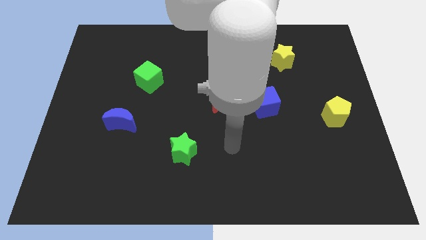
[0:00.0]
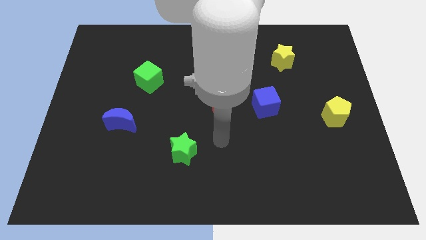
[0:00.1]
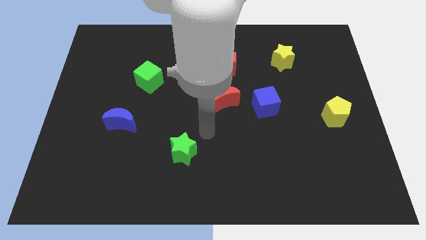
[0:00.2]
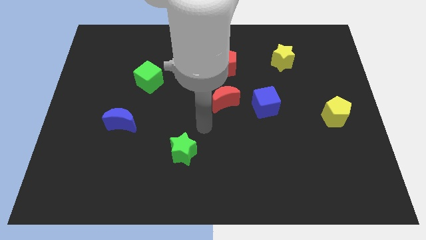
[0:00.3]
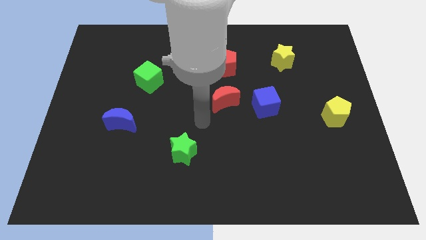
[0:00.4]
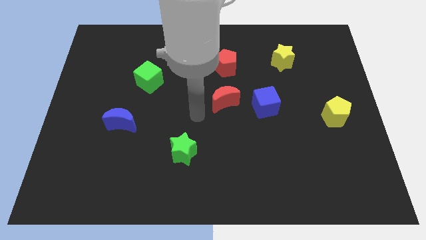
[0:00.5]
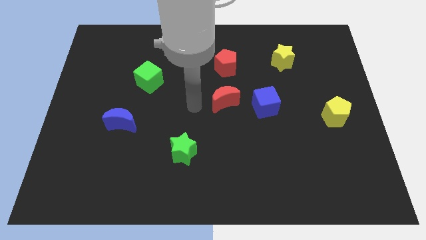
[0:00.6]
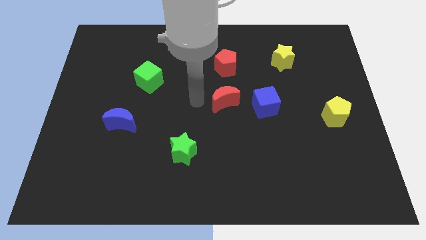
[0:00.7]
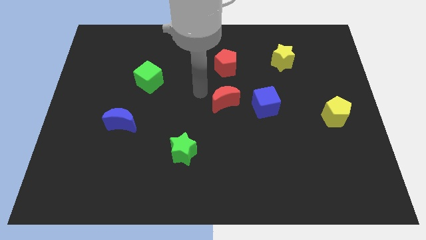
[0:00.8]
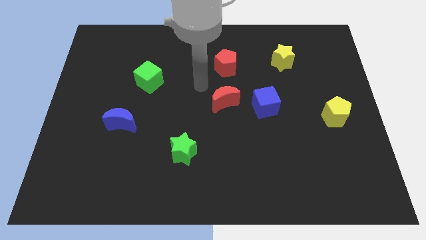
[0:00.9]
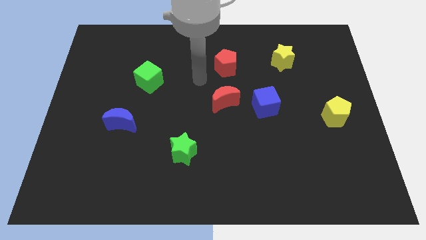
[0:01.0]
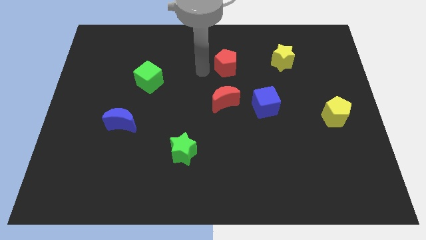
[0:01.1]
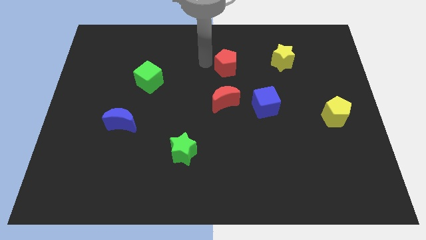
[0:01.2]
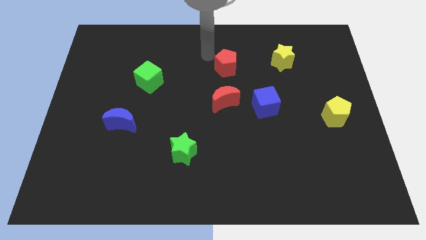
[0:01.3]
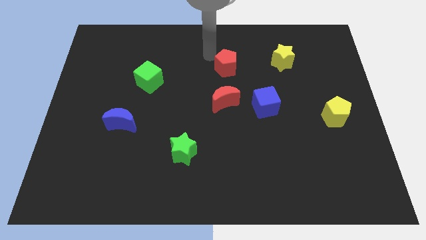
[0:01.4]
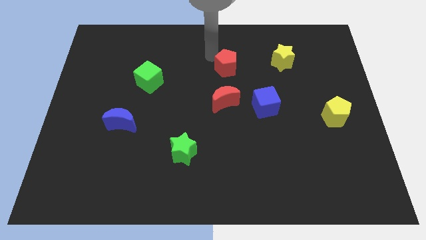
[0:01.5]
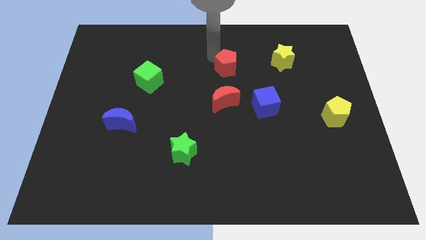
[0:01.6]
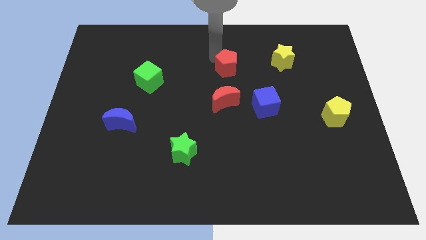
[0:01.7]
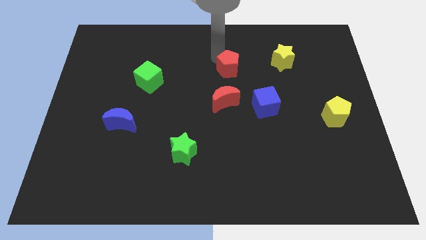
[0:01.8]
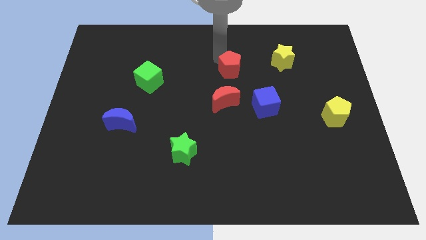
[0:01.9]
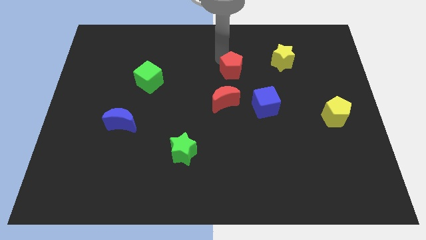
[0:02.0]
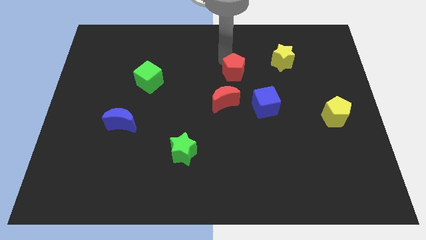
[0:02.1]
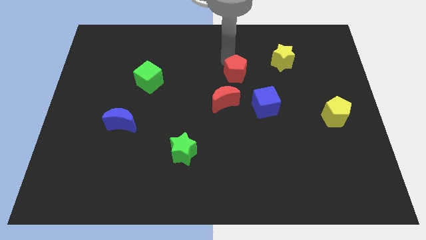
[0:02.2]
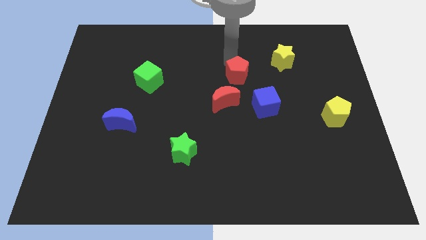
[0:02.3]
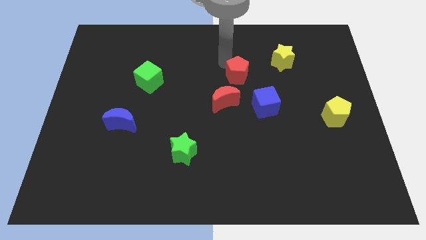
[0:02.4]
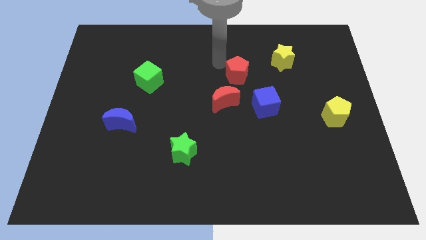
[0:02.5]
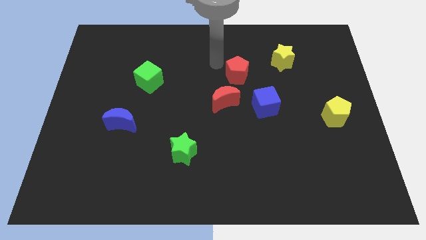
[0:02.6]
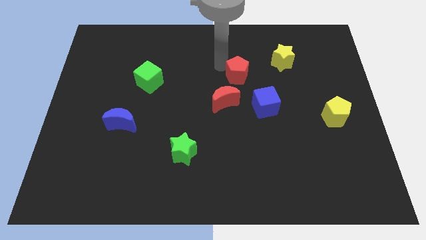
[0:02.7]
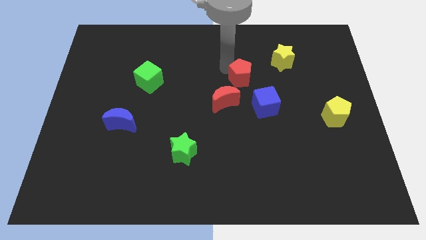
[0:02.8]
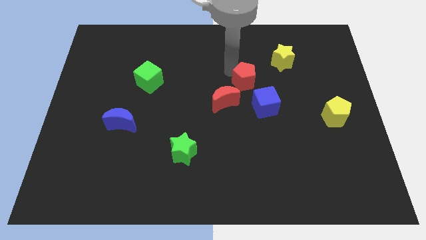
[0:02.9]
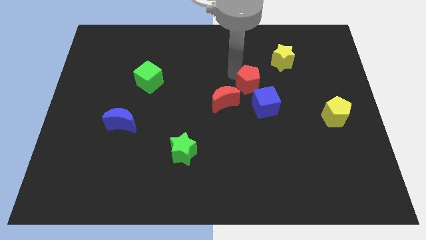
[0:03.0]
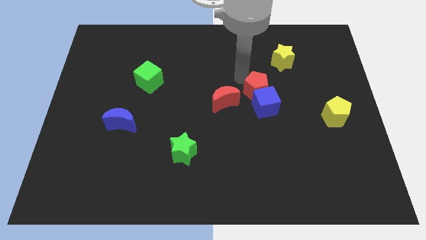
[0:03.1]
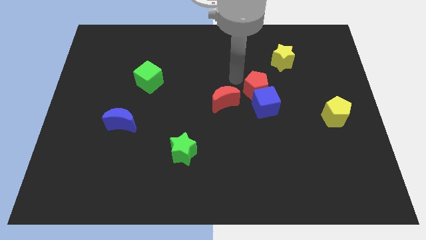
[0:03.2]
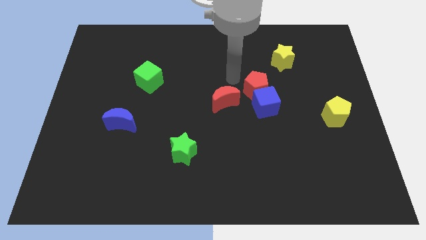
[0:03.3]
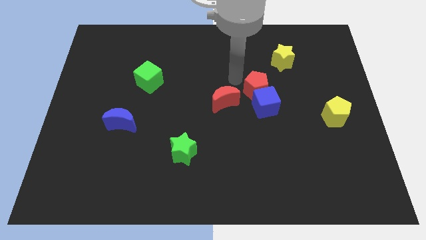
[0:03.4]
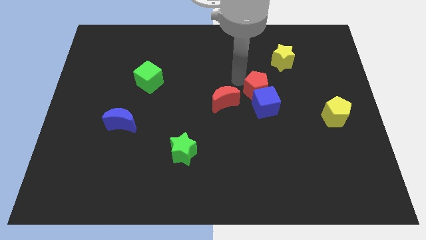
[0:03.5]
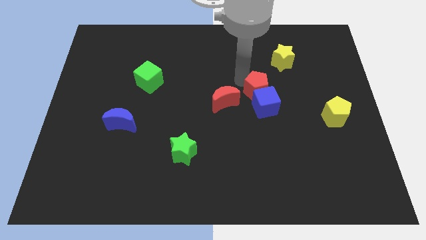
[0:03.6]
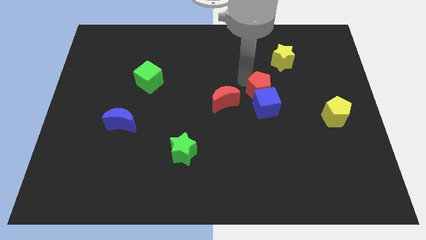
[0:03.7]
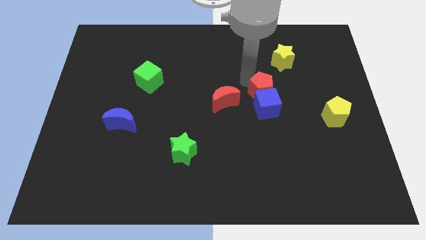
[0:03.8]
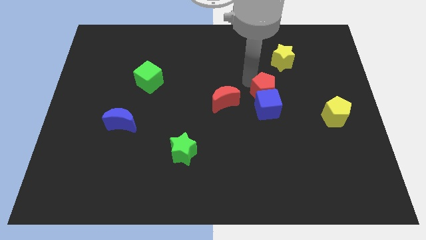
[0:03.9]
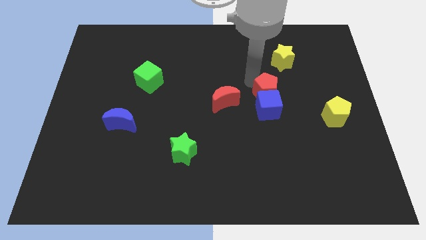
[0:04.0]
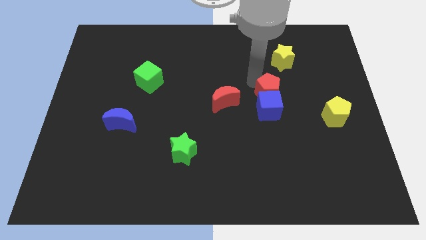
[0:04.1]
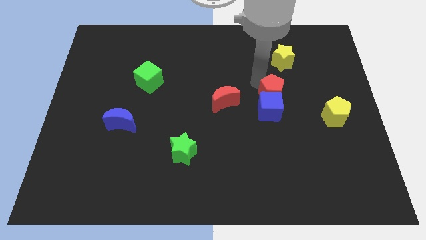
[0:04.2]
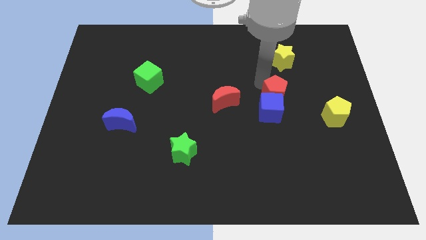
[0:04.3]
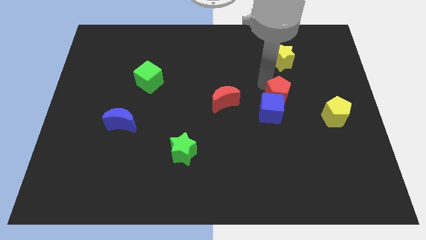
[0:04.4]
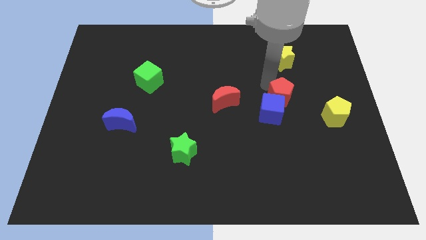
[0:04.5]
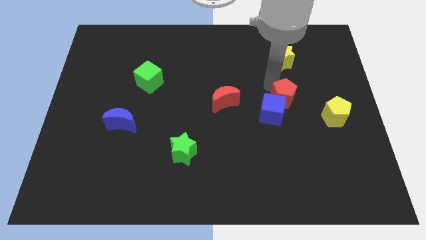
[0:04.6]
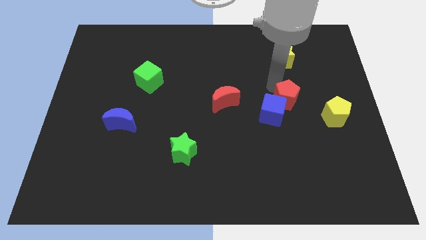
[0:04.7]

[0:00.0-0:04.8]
slide the red pentagon to the left side of the yellow pentagon

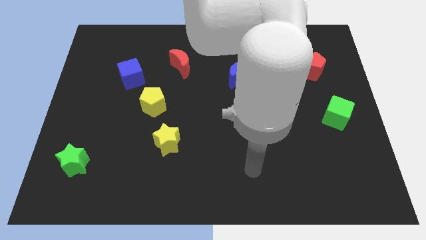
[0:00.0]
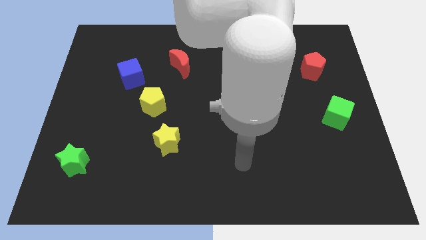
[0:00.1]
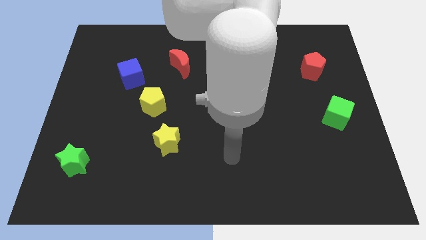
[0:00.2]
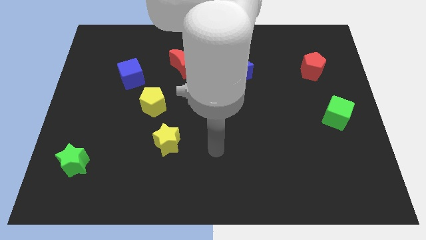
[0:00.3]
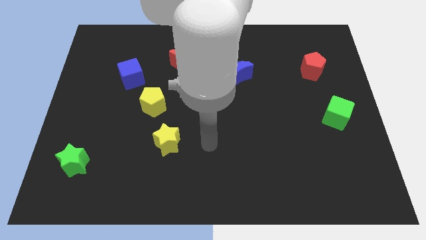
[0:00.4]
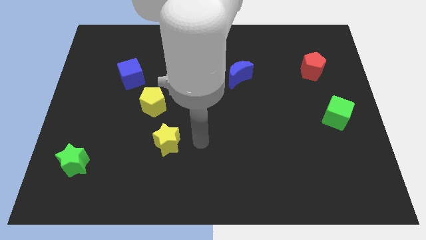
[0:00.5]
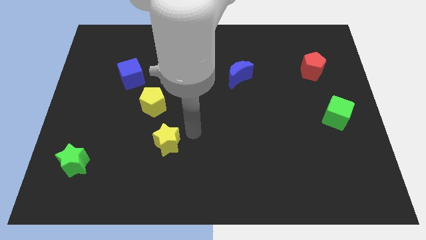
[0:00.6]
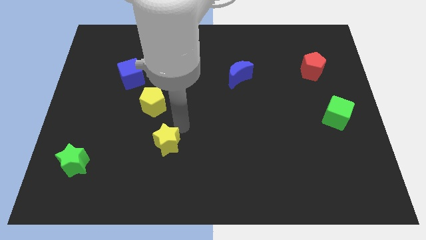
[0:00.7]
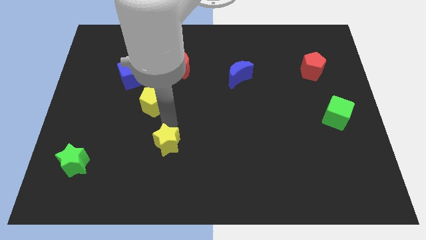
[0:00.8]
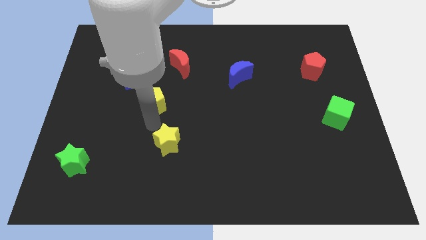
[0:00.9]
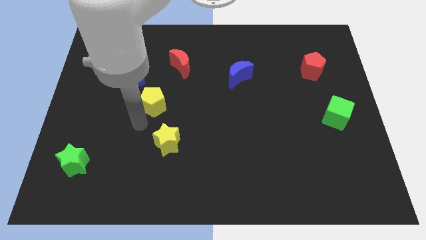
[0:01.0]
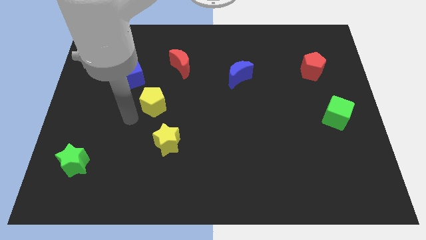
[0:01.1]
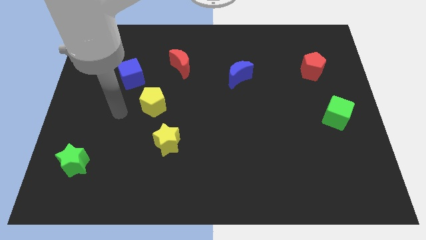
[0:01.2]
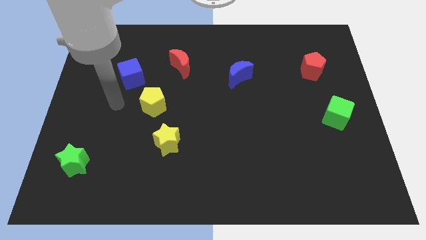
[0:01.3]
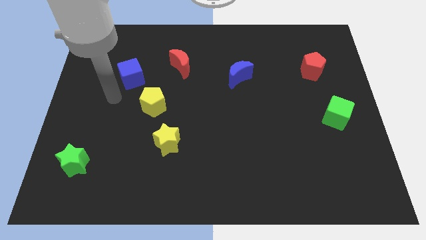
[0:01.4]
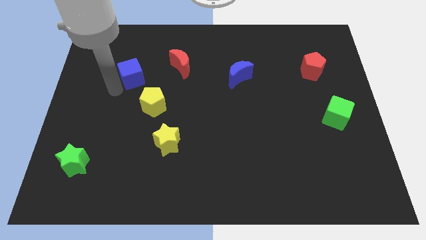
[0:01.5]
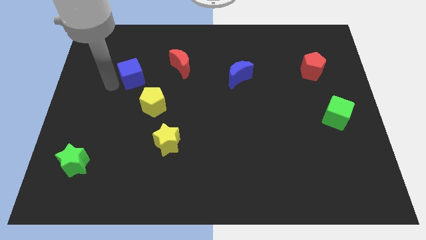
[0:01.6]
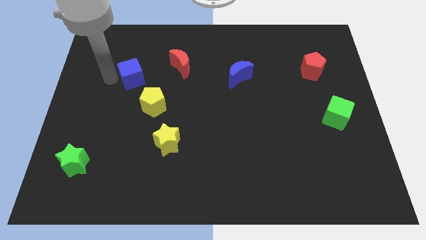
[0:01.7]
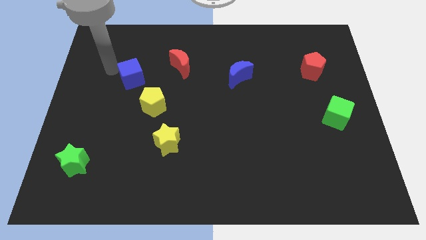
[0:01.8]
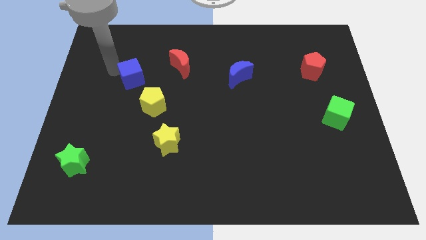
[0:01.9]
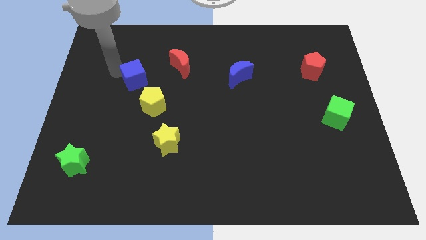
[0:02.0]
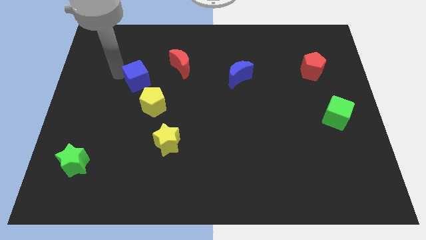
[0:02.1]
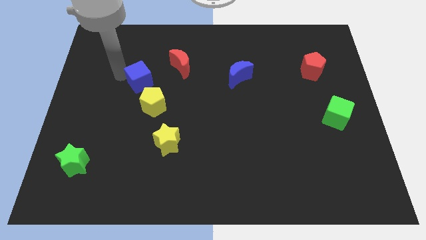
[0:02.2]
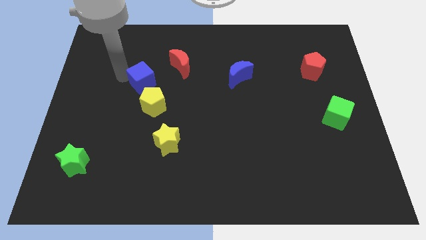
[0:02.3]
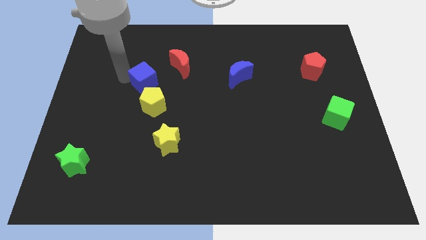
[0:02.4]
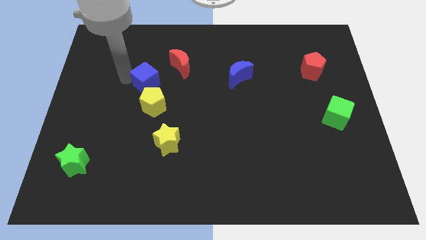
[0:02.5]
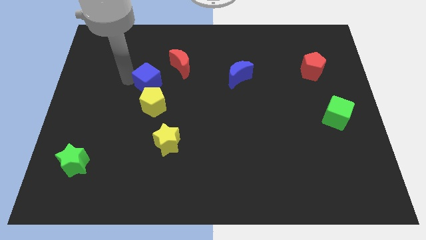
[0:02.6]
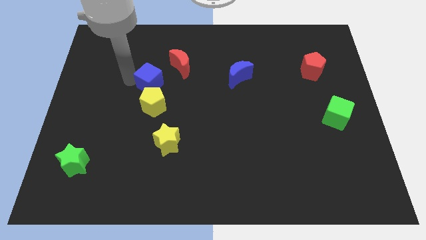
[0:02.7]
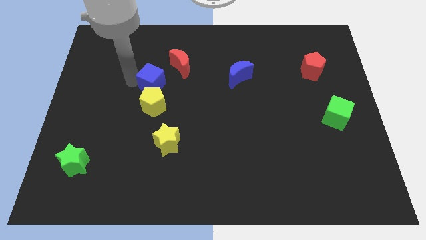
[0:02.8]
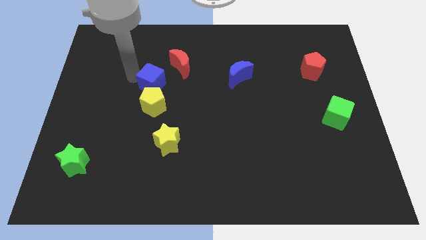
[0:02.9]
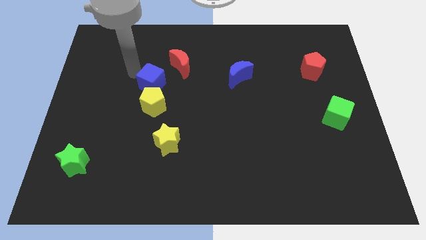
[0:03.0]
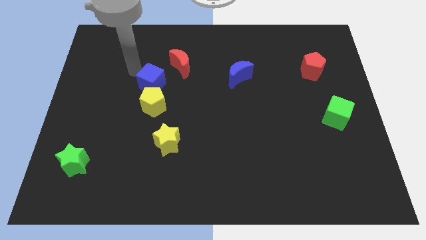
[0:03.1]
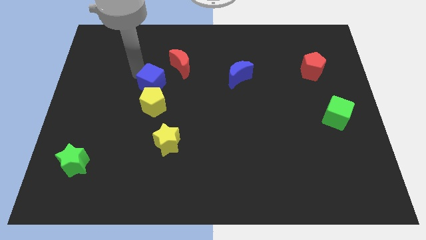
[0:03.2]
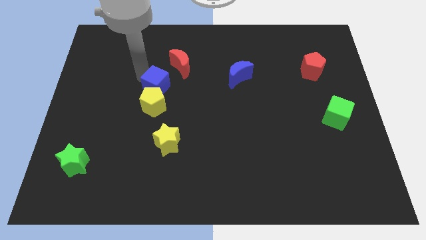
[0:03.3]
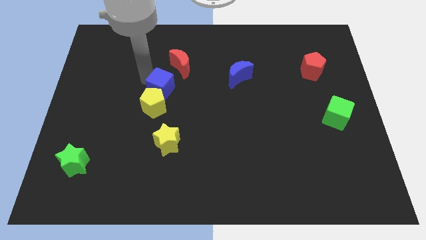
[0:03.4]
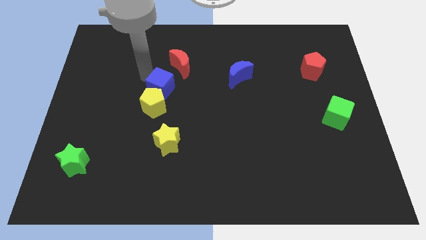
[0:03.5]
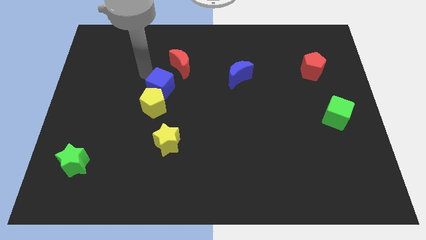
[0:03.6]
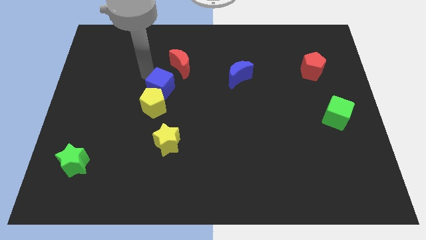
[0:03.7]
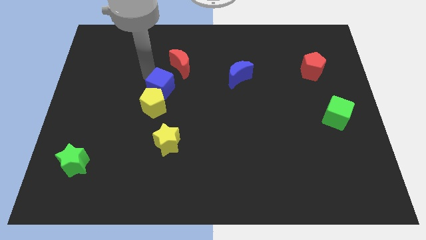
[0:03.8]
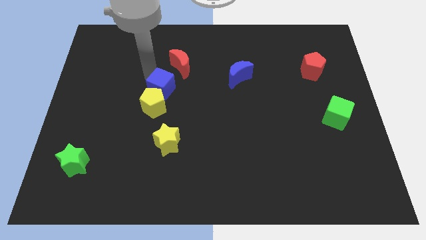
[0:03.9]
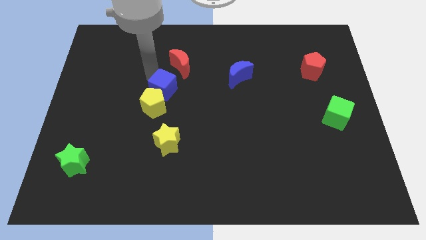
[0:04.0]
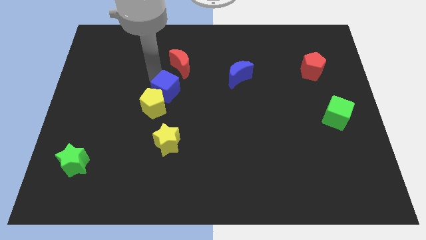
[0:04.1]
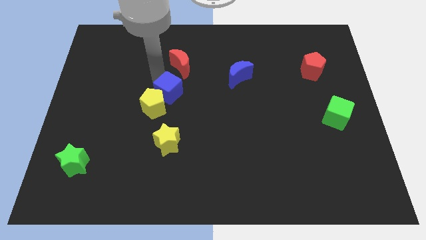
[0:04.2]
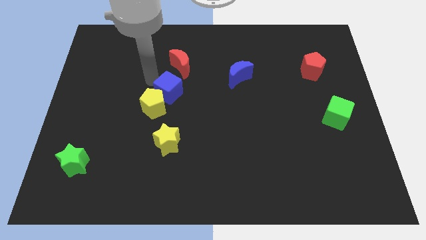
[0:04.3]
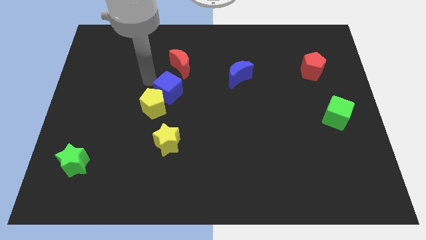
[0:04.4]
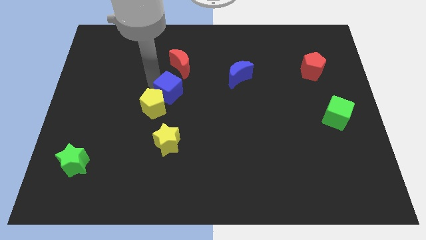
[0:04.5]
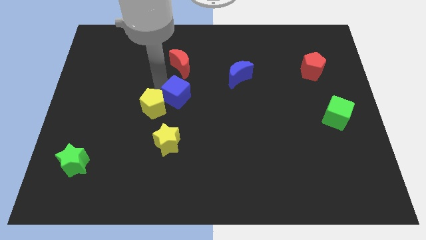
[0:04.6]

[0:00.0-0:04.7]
move the blue cube right of the yellow pentagon
